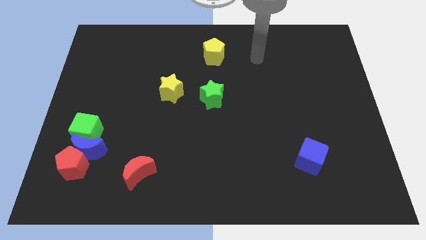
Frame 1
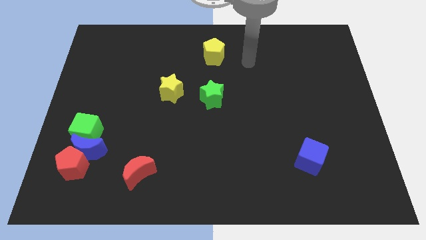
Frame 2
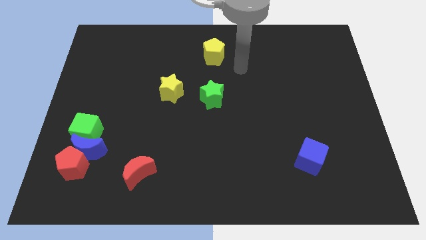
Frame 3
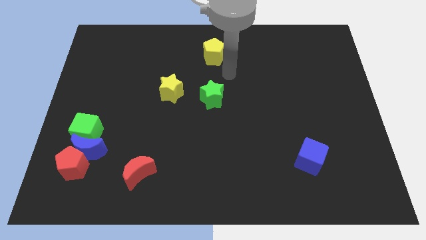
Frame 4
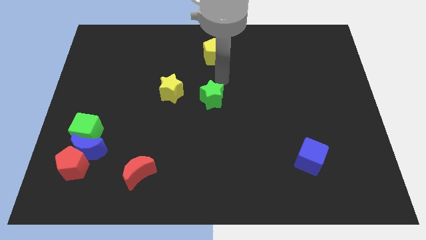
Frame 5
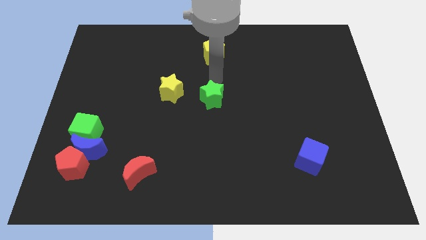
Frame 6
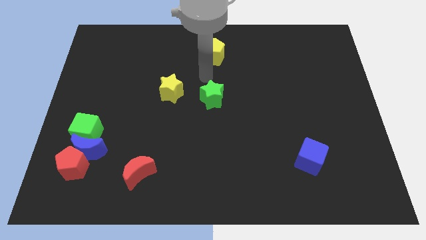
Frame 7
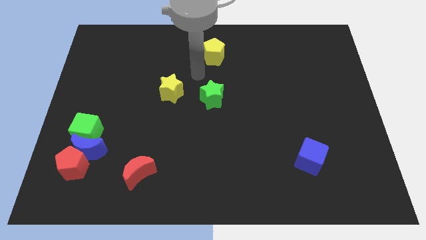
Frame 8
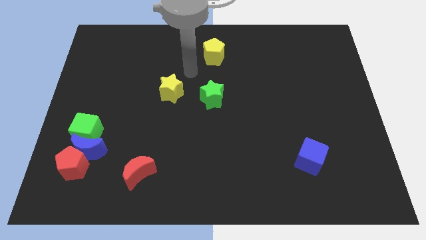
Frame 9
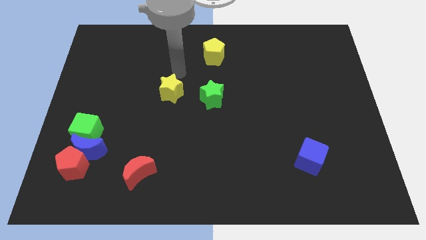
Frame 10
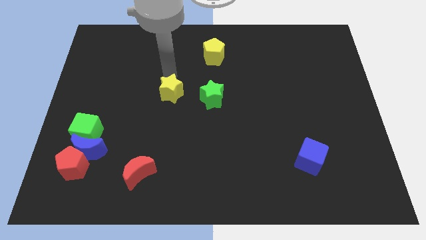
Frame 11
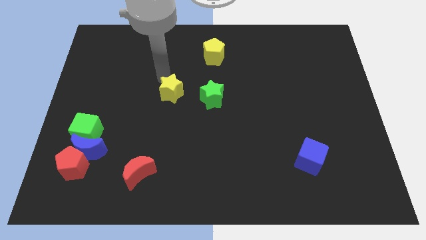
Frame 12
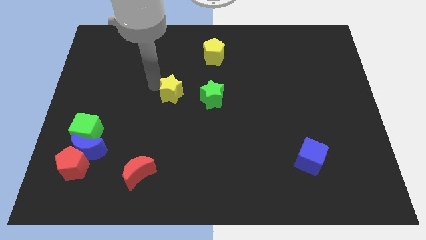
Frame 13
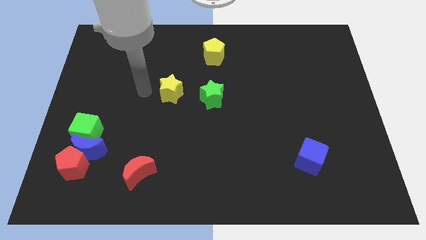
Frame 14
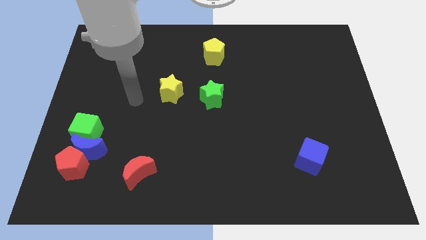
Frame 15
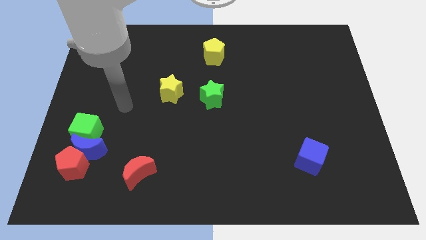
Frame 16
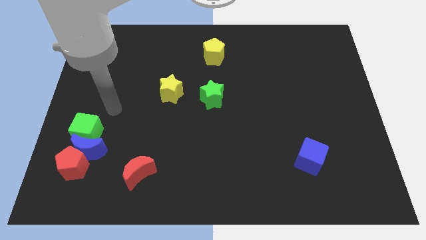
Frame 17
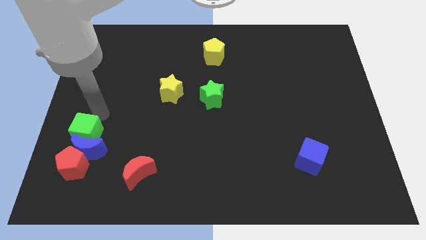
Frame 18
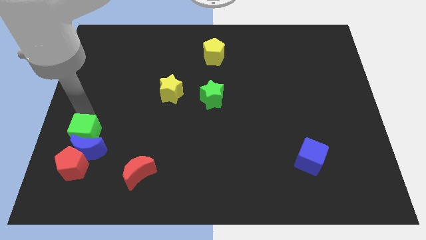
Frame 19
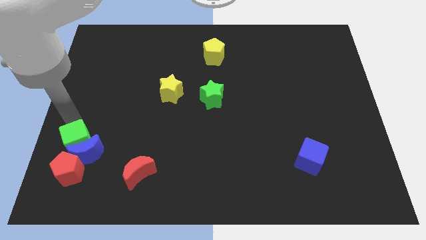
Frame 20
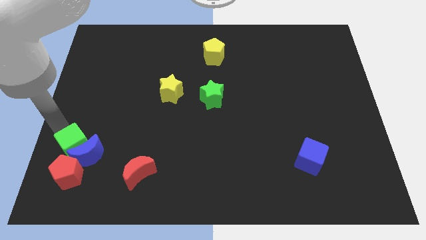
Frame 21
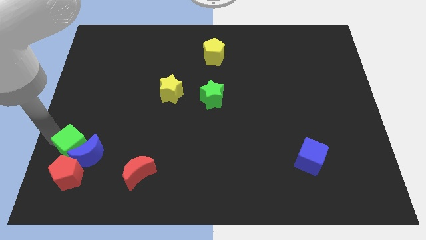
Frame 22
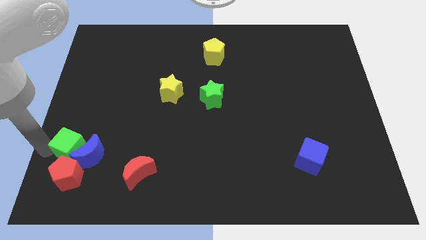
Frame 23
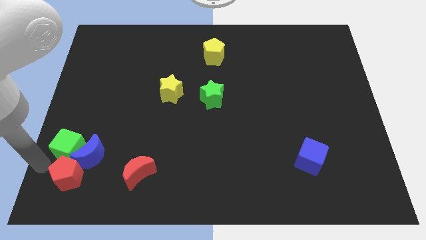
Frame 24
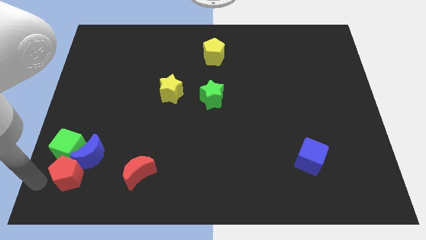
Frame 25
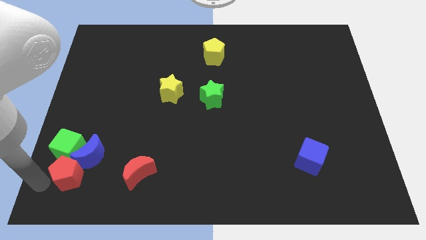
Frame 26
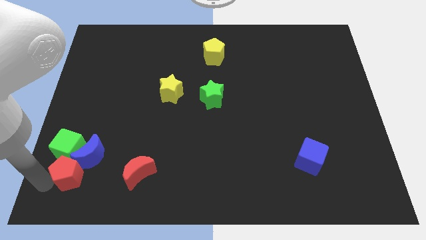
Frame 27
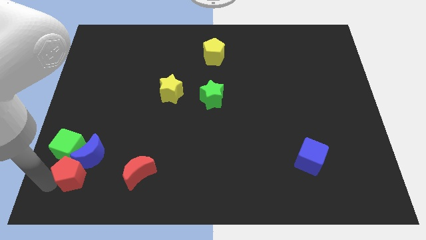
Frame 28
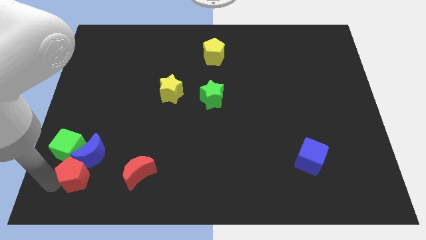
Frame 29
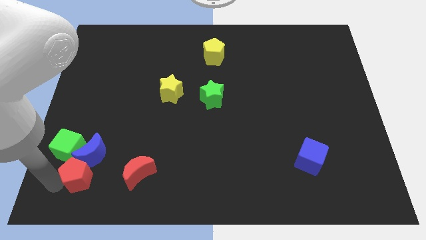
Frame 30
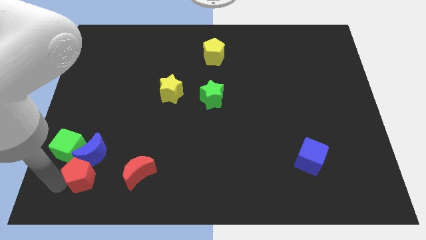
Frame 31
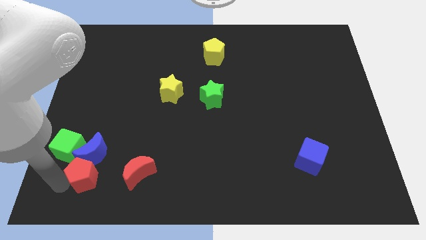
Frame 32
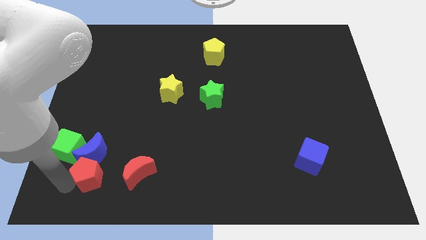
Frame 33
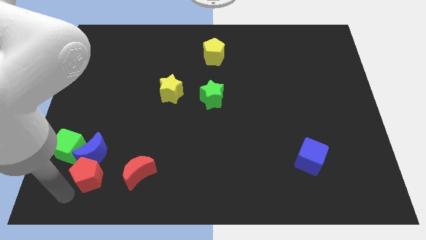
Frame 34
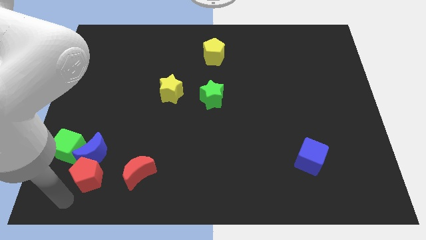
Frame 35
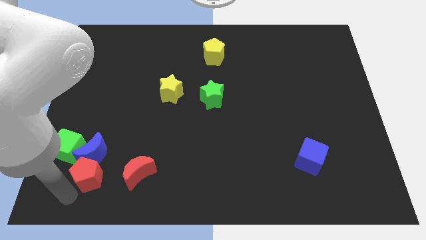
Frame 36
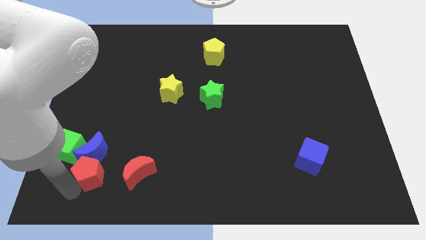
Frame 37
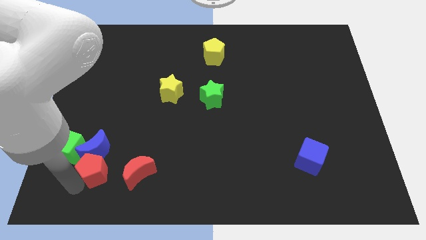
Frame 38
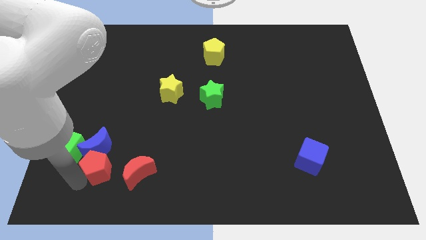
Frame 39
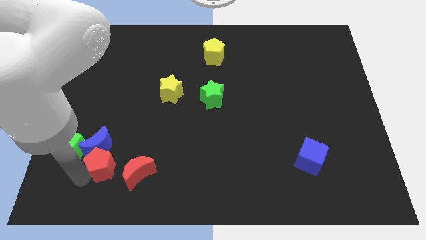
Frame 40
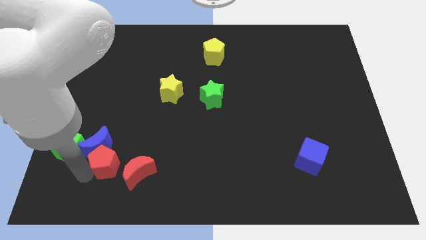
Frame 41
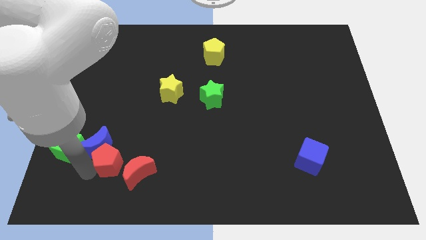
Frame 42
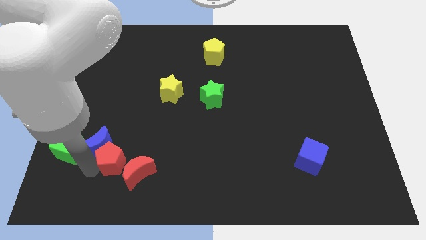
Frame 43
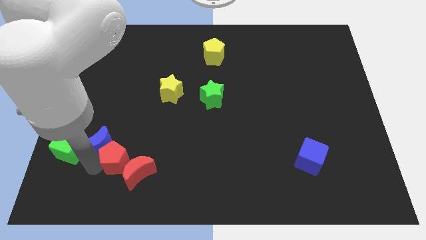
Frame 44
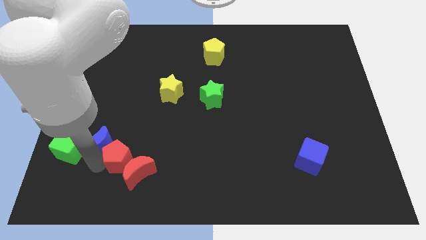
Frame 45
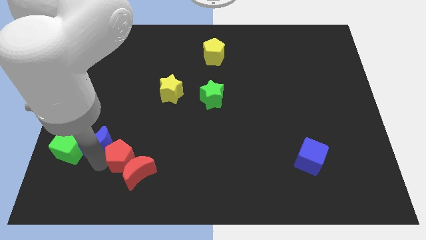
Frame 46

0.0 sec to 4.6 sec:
slightly push the red pentagon upwards and then to the right

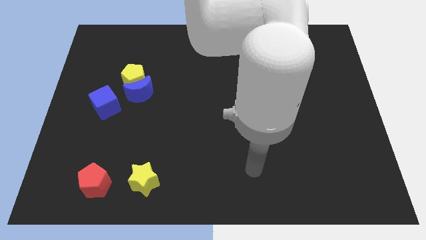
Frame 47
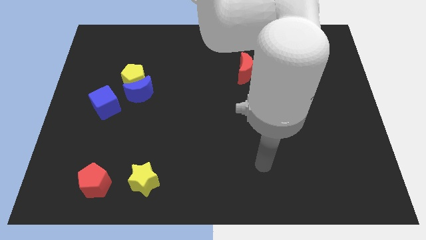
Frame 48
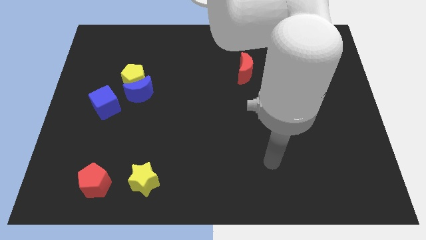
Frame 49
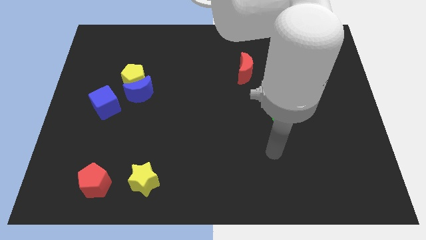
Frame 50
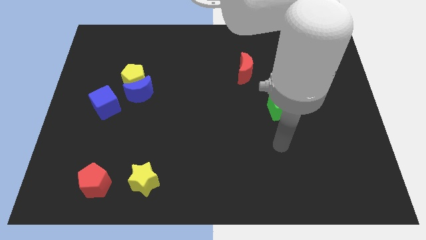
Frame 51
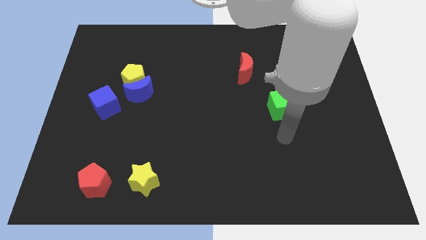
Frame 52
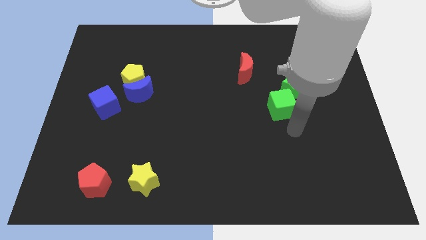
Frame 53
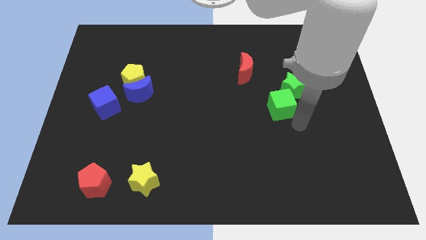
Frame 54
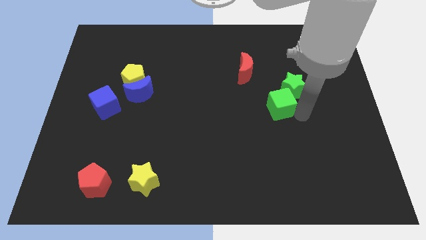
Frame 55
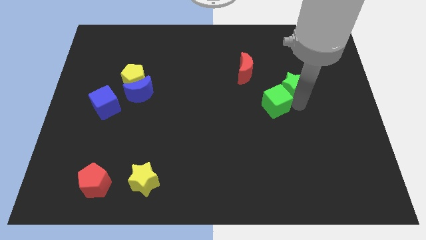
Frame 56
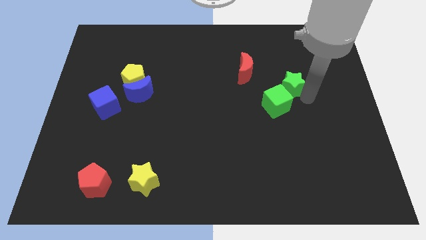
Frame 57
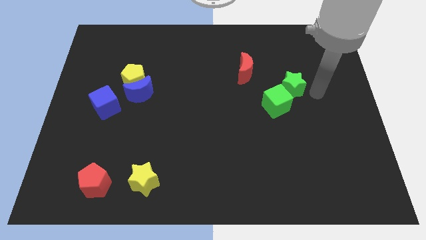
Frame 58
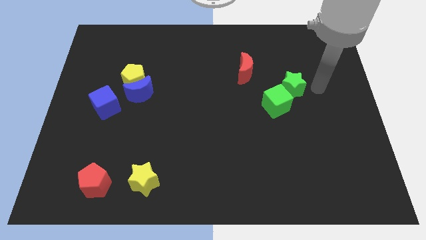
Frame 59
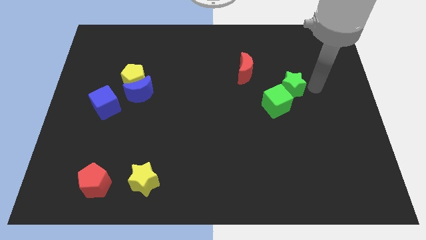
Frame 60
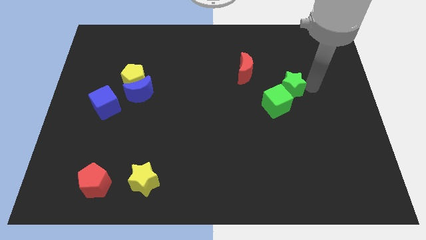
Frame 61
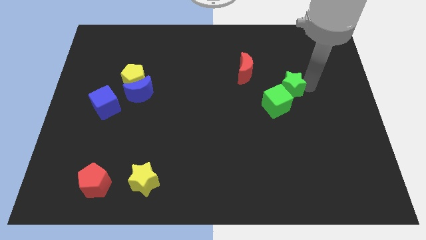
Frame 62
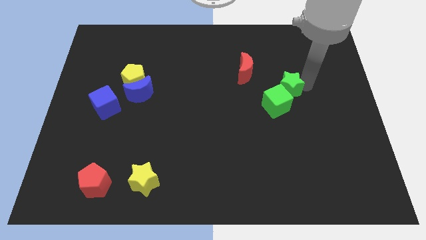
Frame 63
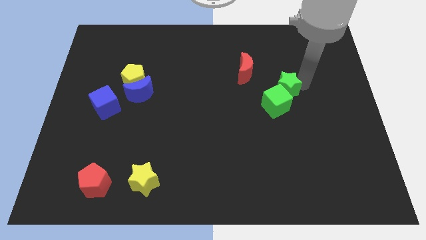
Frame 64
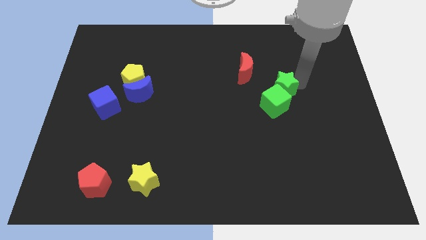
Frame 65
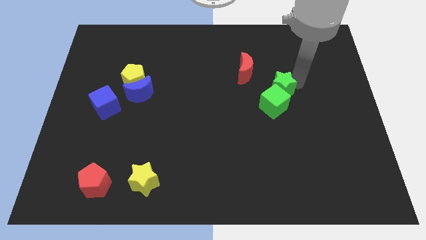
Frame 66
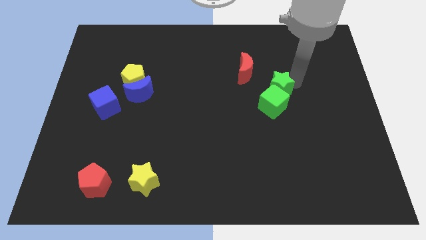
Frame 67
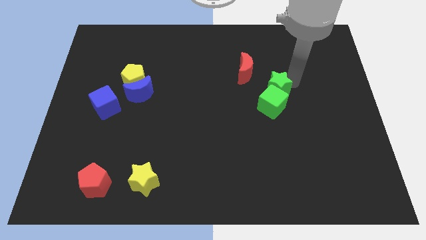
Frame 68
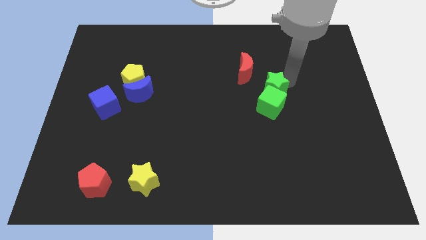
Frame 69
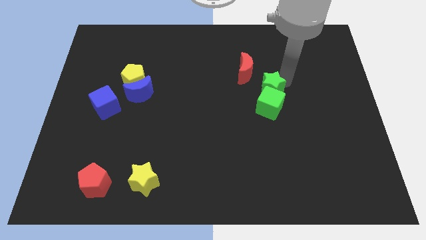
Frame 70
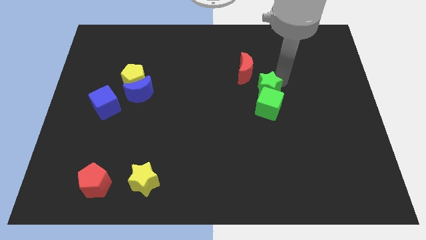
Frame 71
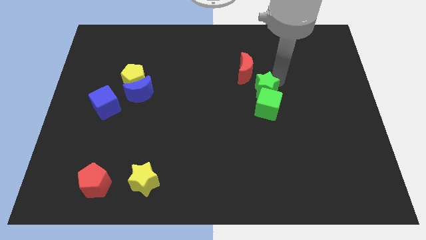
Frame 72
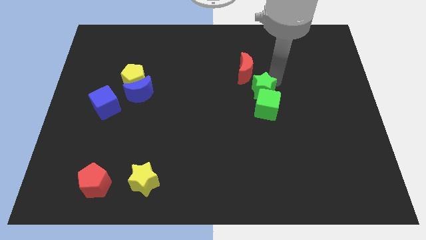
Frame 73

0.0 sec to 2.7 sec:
slightly slide the green star left

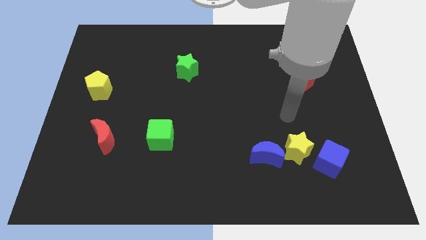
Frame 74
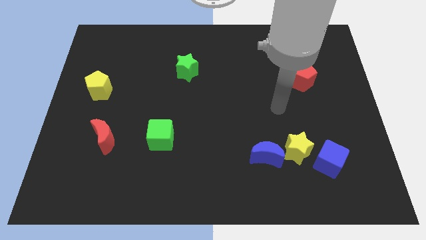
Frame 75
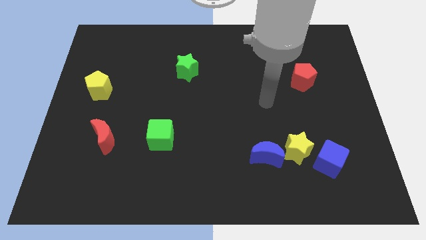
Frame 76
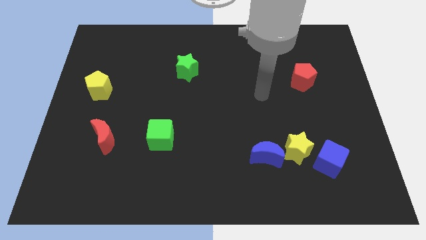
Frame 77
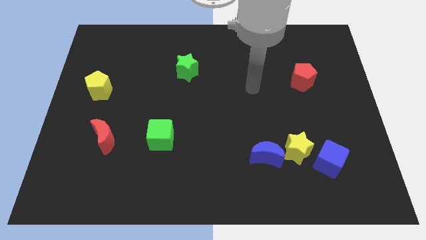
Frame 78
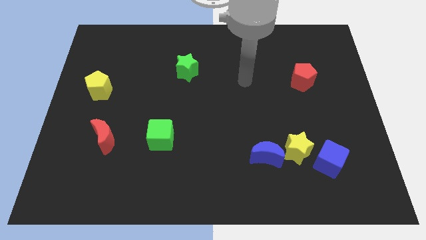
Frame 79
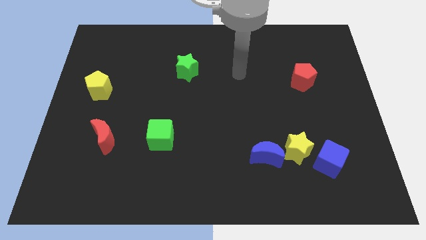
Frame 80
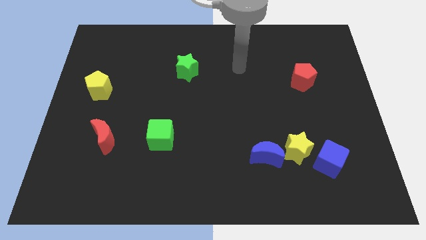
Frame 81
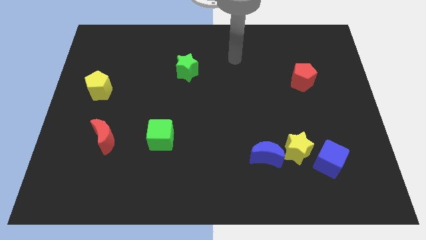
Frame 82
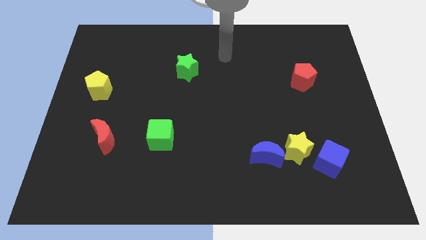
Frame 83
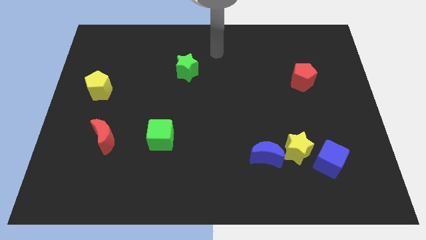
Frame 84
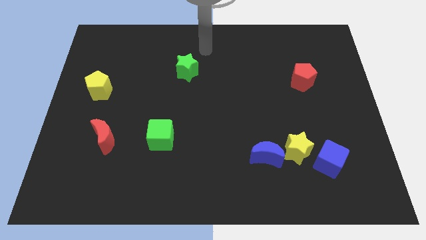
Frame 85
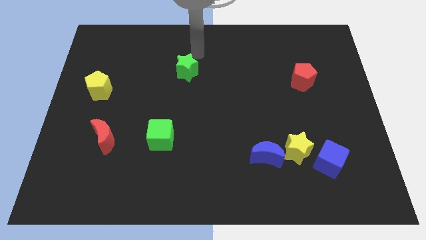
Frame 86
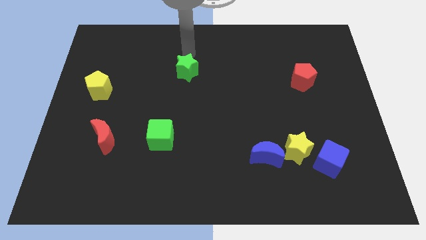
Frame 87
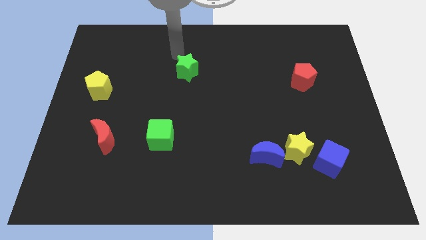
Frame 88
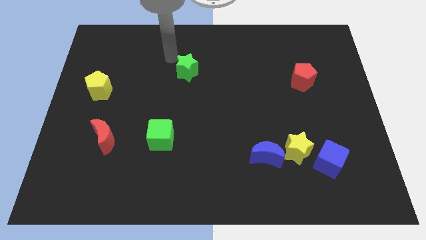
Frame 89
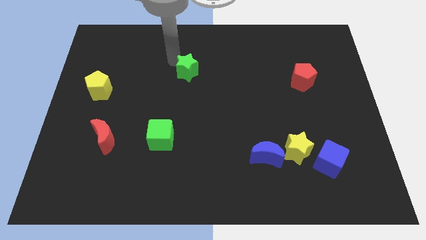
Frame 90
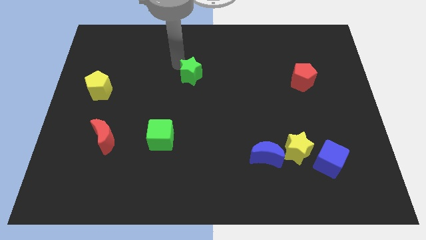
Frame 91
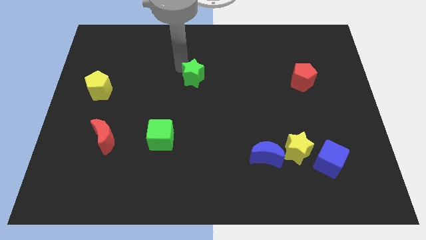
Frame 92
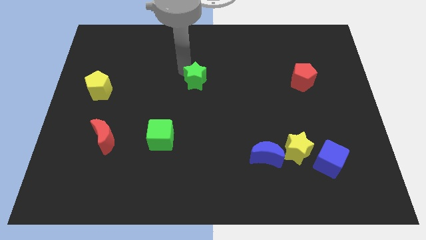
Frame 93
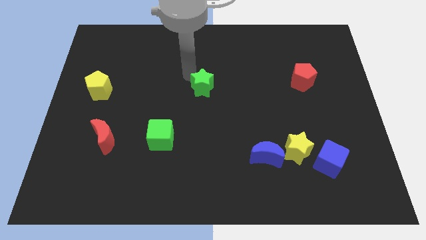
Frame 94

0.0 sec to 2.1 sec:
slide the green star down and to the right diagonally a bit
